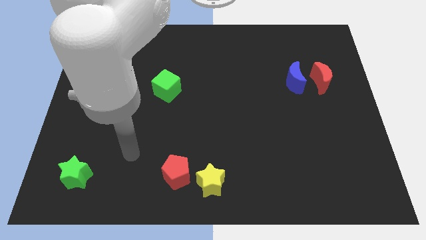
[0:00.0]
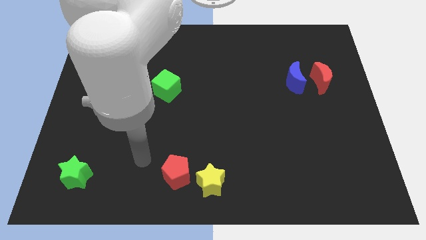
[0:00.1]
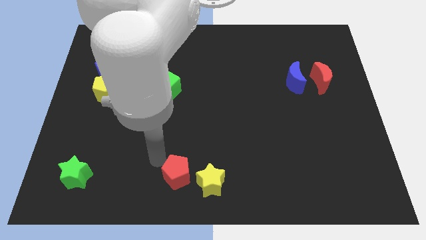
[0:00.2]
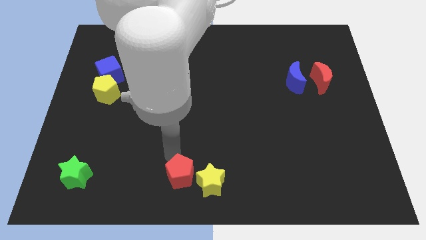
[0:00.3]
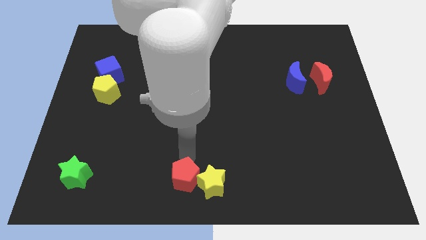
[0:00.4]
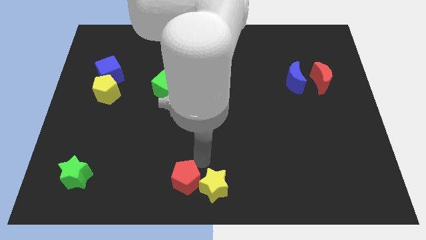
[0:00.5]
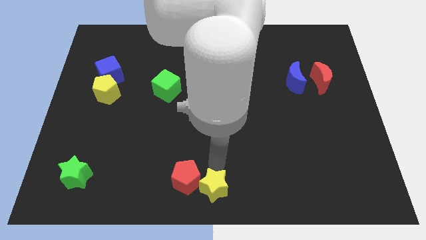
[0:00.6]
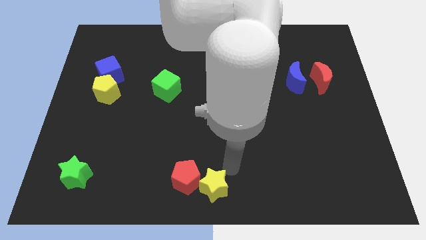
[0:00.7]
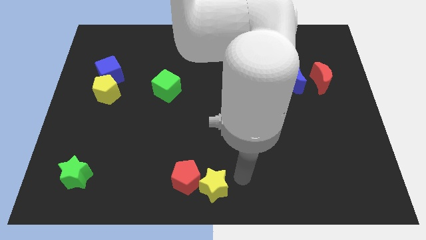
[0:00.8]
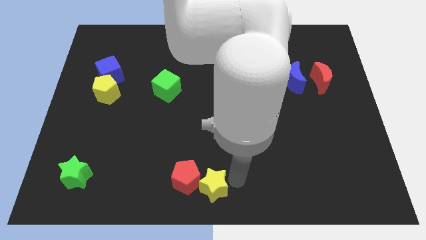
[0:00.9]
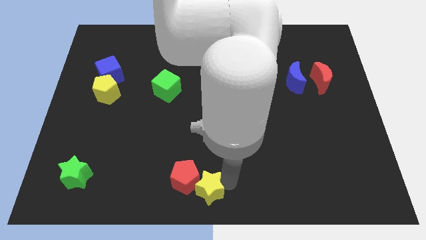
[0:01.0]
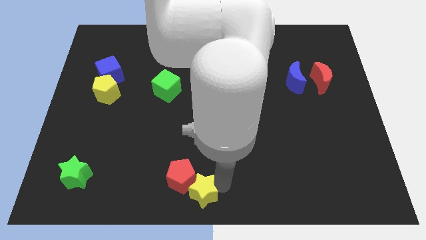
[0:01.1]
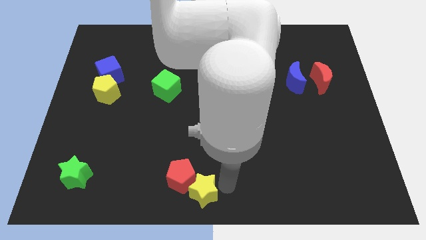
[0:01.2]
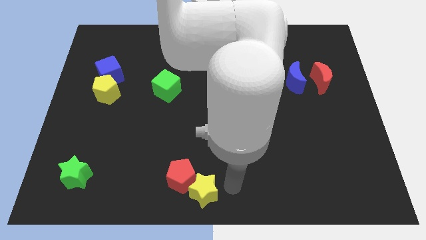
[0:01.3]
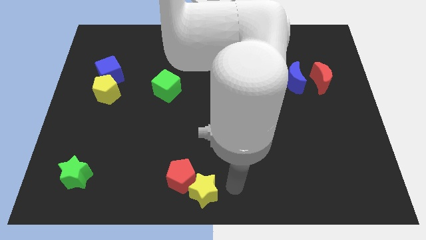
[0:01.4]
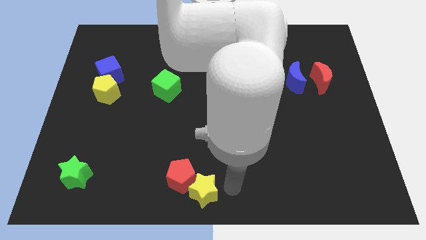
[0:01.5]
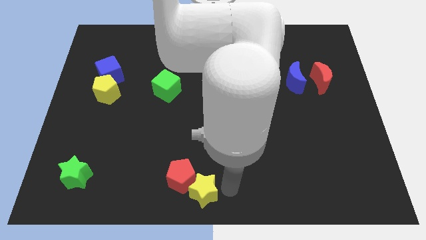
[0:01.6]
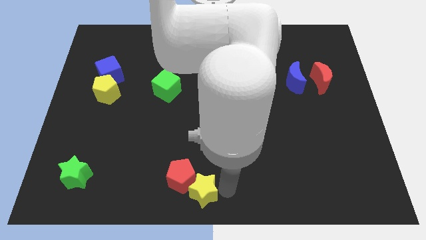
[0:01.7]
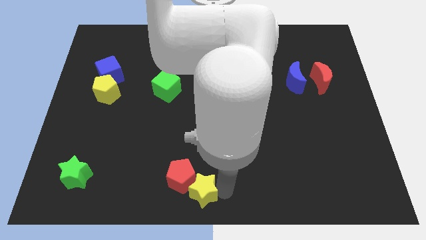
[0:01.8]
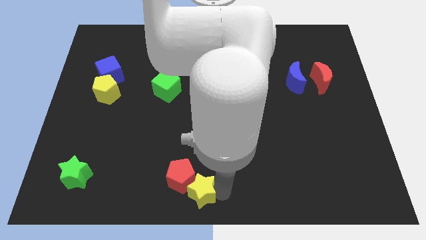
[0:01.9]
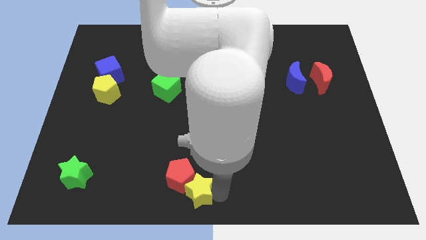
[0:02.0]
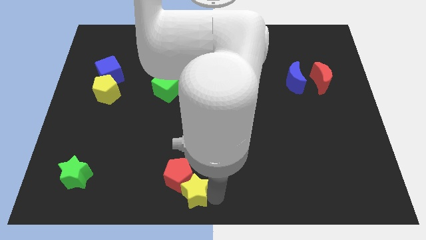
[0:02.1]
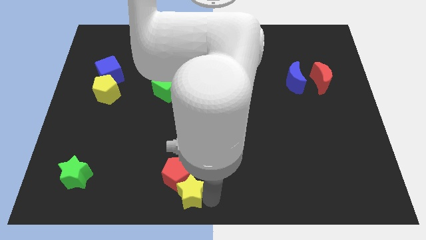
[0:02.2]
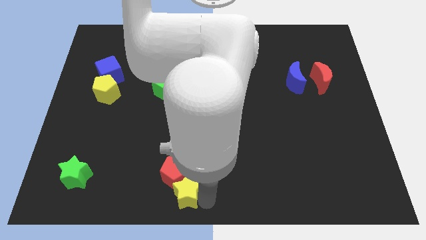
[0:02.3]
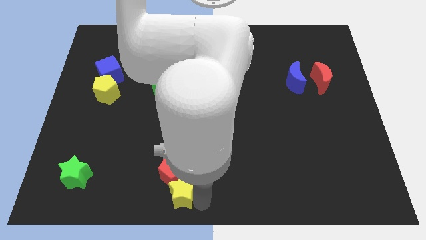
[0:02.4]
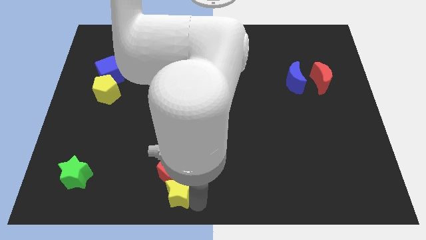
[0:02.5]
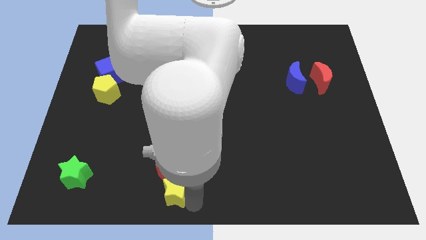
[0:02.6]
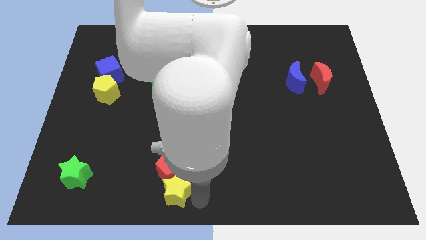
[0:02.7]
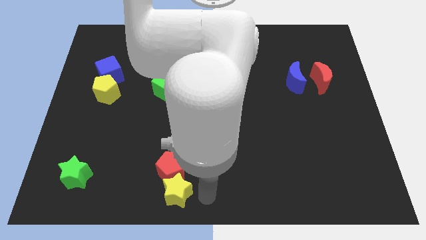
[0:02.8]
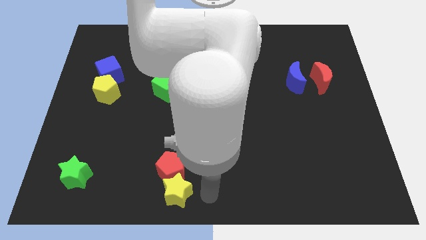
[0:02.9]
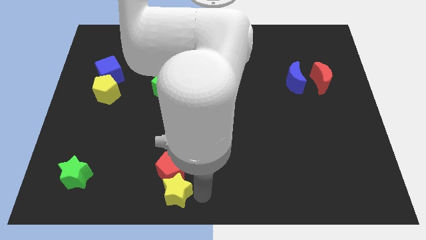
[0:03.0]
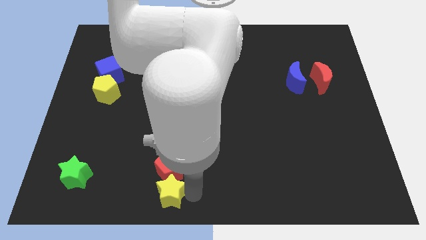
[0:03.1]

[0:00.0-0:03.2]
slide the yellow star slightly to the left

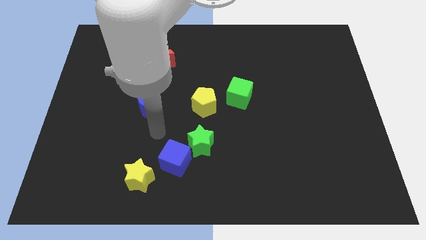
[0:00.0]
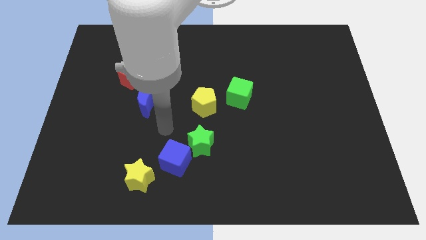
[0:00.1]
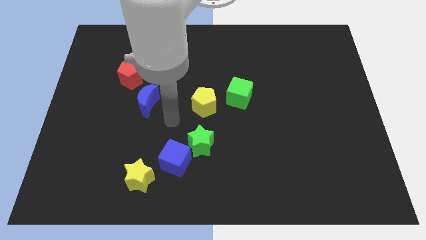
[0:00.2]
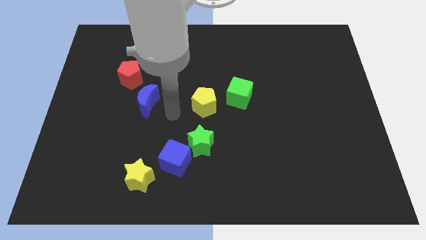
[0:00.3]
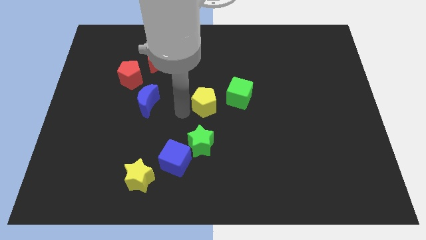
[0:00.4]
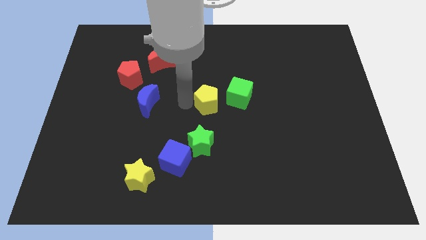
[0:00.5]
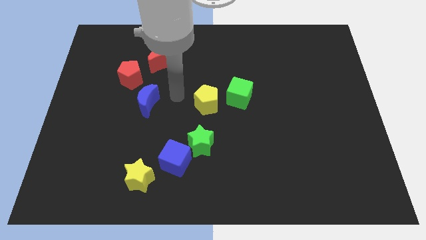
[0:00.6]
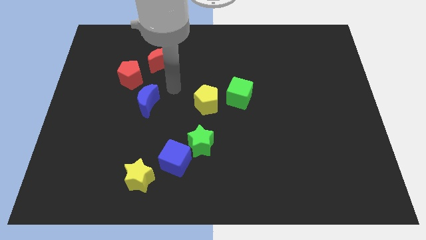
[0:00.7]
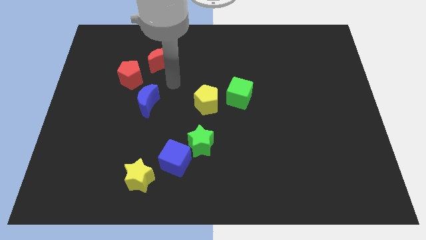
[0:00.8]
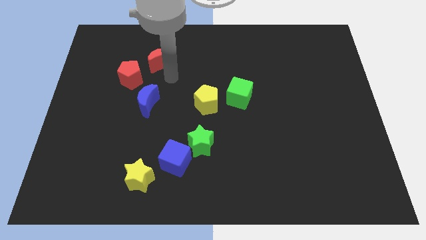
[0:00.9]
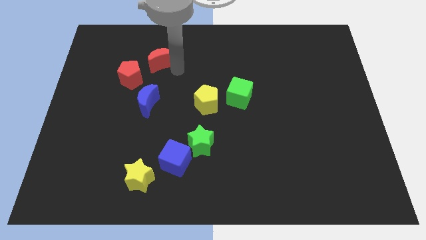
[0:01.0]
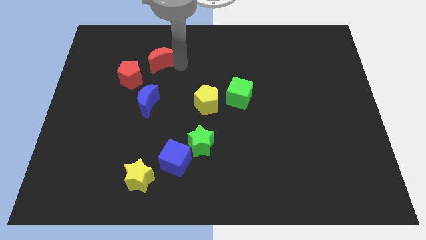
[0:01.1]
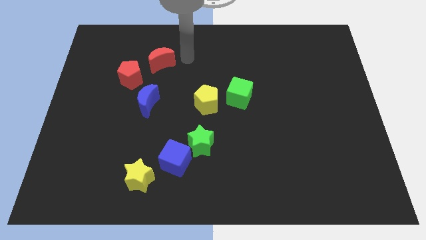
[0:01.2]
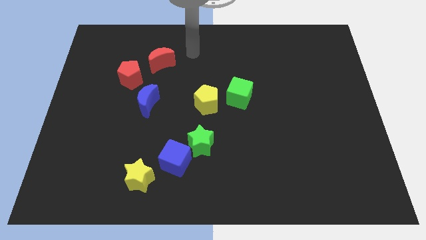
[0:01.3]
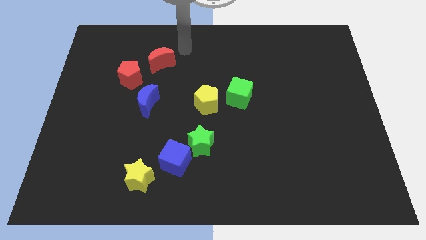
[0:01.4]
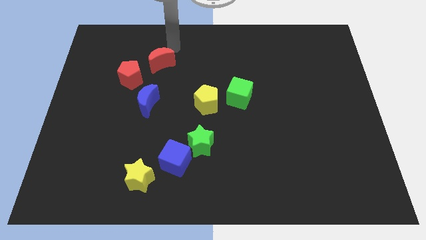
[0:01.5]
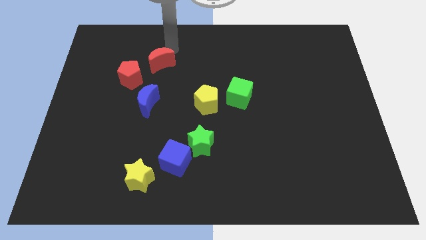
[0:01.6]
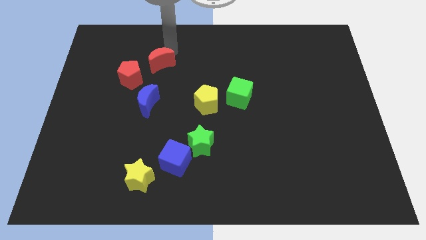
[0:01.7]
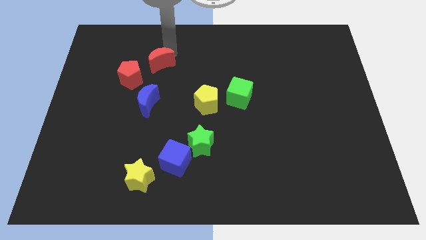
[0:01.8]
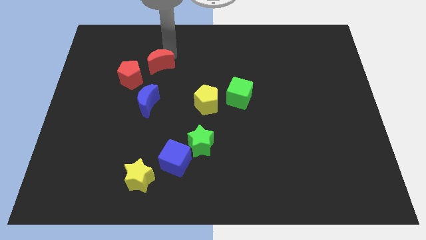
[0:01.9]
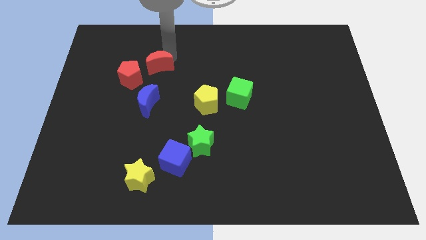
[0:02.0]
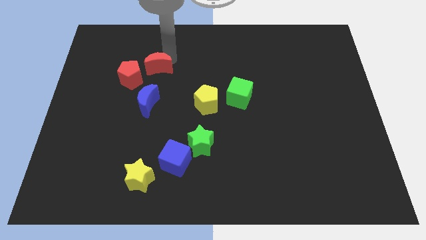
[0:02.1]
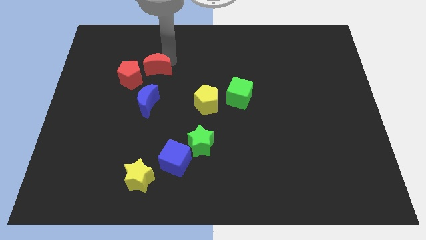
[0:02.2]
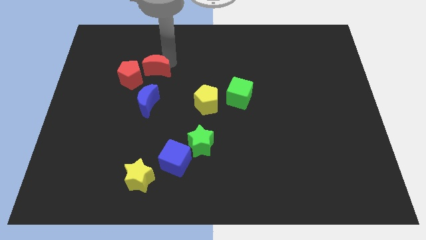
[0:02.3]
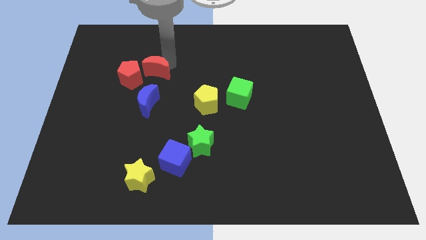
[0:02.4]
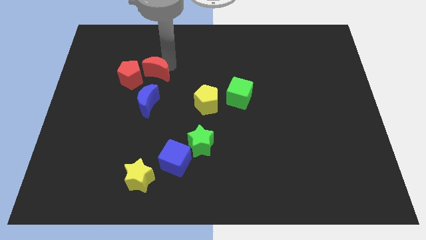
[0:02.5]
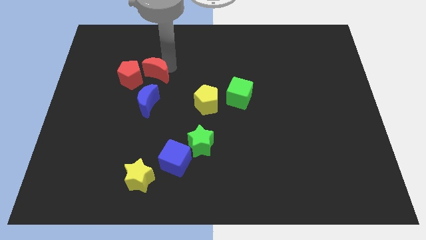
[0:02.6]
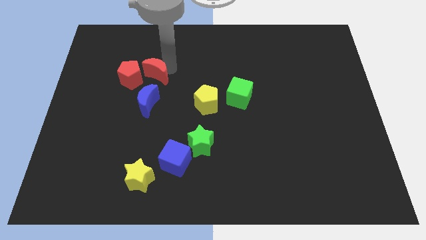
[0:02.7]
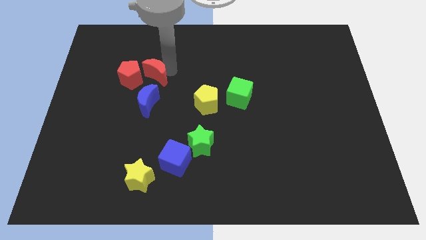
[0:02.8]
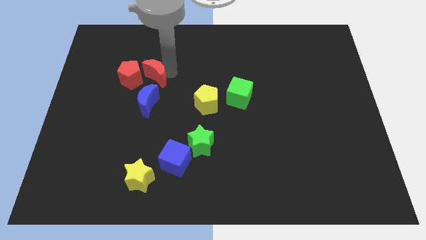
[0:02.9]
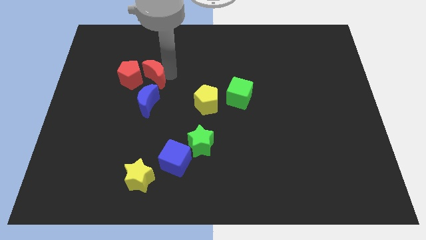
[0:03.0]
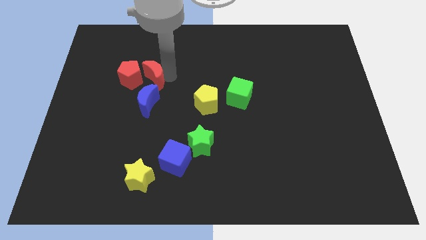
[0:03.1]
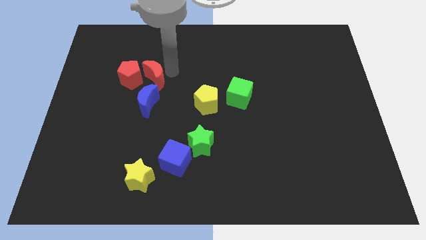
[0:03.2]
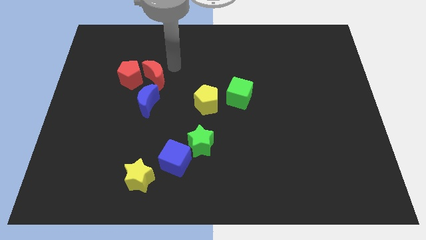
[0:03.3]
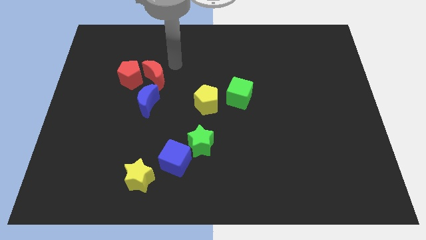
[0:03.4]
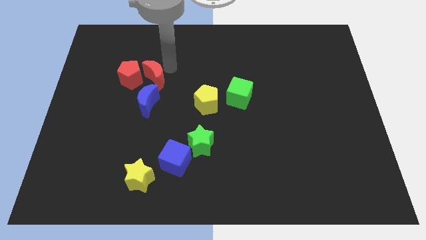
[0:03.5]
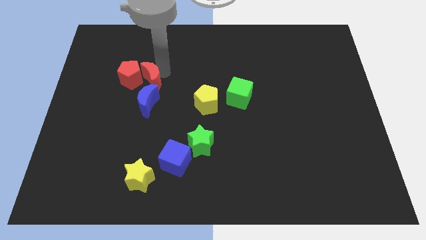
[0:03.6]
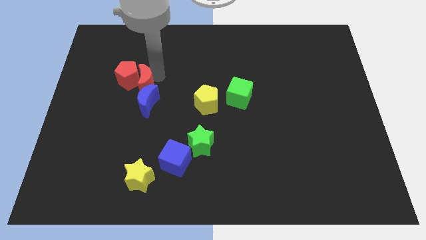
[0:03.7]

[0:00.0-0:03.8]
move the red moon slightly downwards and left diagonally

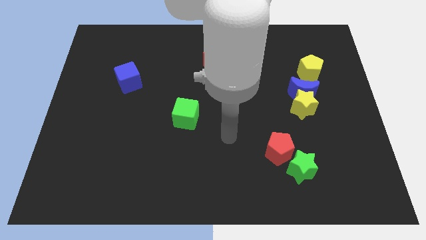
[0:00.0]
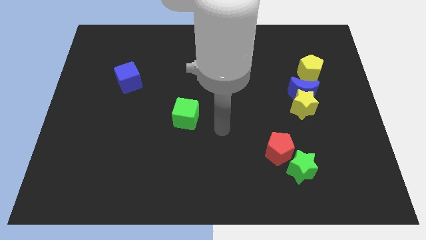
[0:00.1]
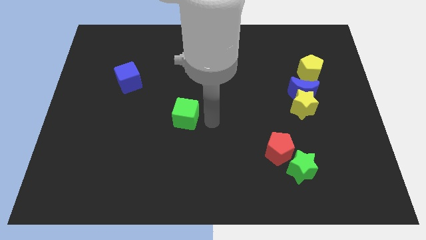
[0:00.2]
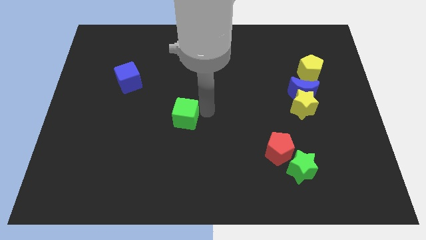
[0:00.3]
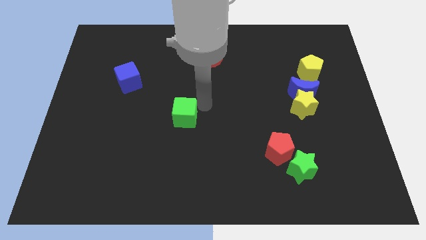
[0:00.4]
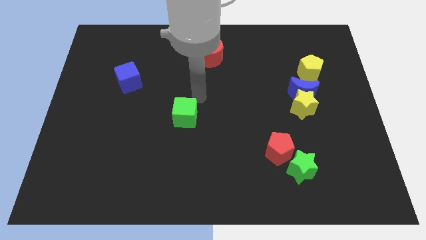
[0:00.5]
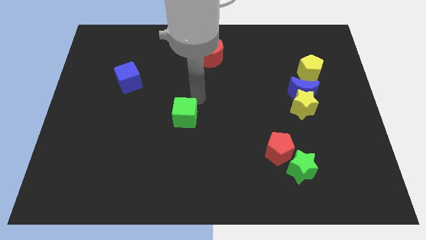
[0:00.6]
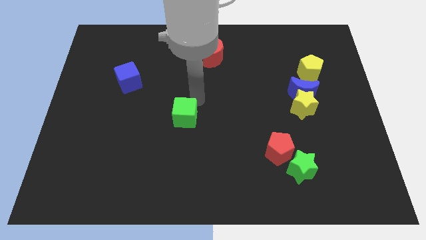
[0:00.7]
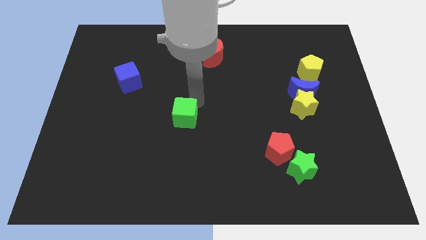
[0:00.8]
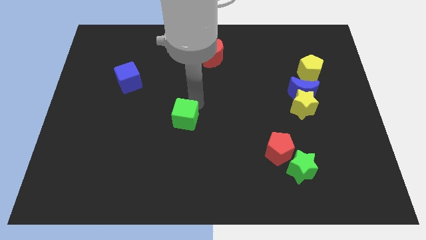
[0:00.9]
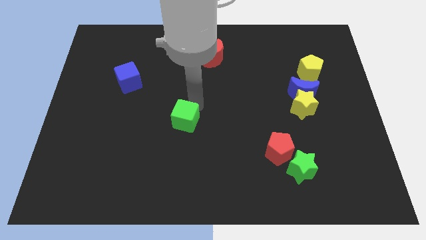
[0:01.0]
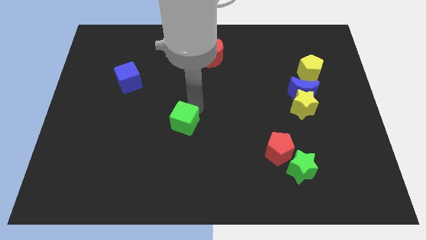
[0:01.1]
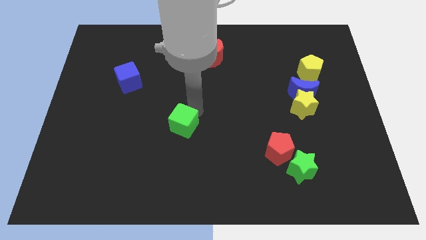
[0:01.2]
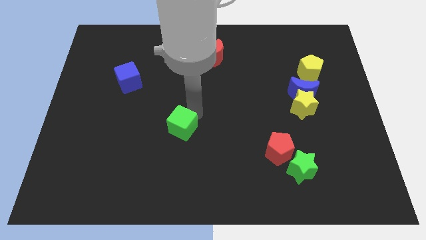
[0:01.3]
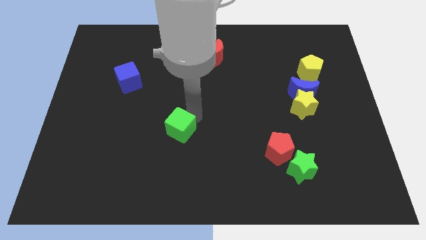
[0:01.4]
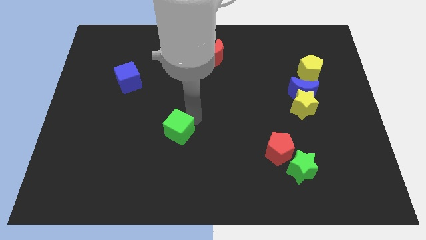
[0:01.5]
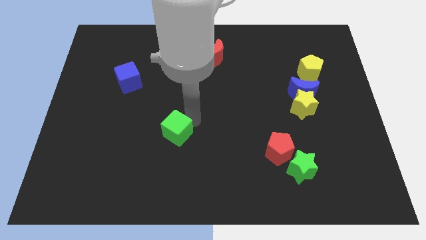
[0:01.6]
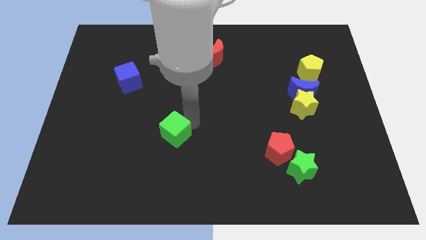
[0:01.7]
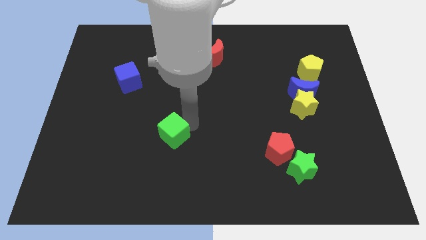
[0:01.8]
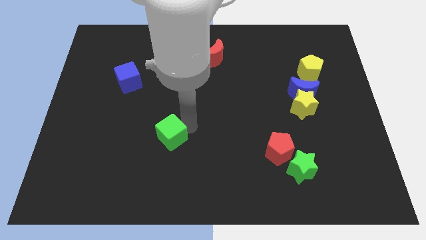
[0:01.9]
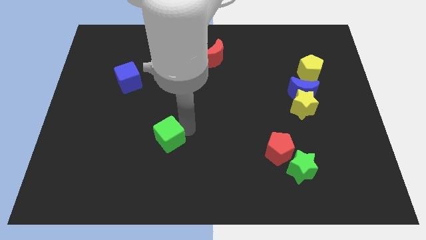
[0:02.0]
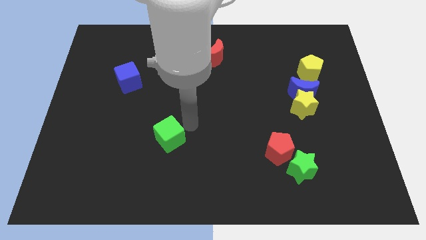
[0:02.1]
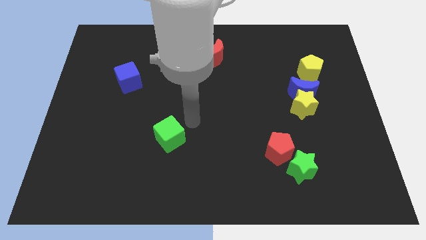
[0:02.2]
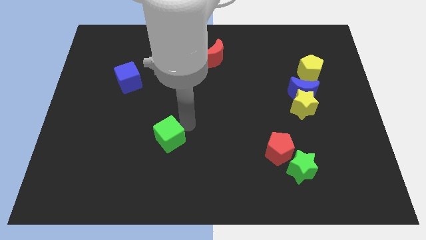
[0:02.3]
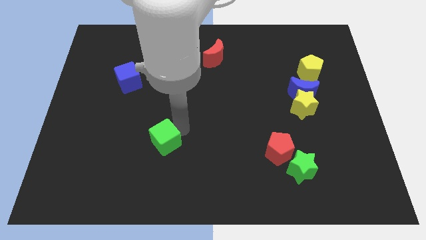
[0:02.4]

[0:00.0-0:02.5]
push the green cube somewhat diagonally downwards and left
